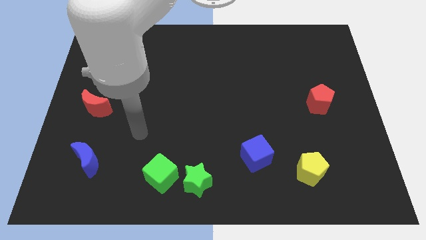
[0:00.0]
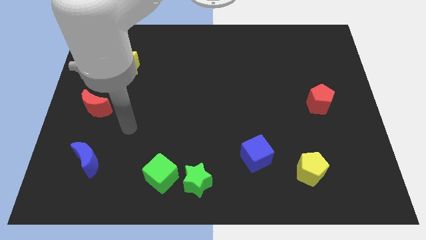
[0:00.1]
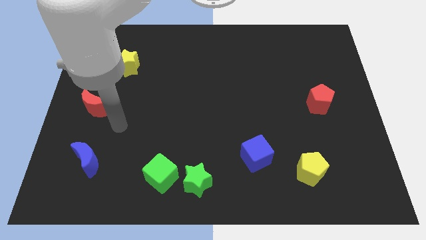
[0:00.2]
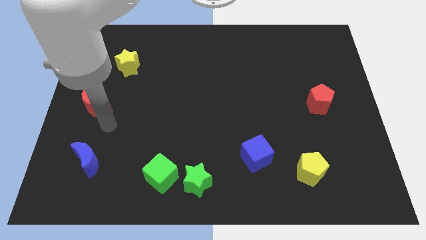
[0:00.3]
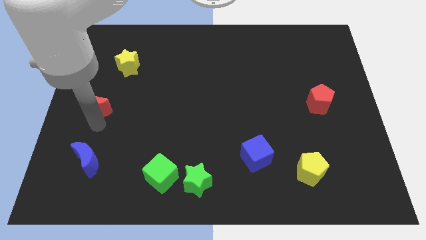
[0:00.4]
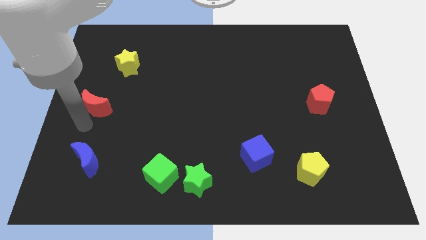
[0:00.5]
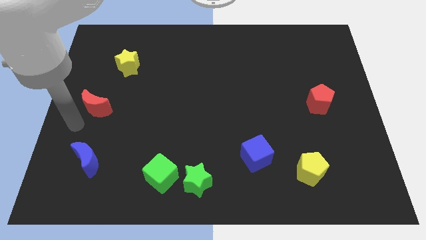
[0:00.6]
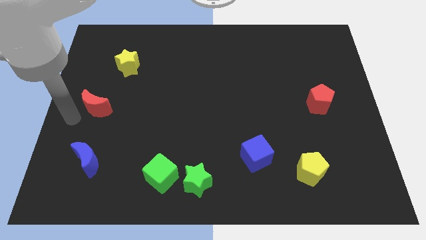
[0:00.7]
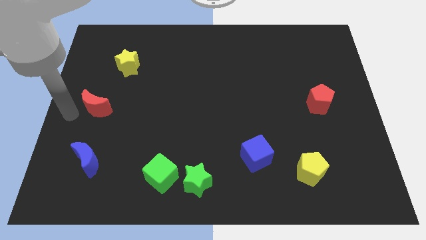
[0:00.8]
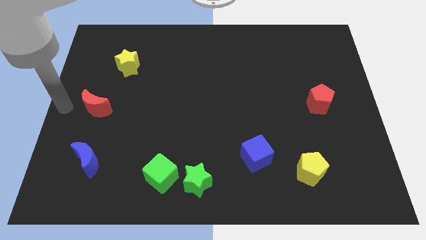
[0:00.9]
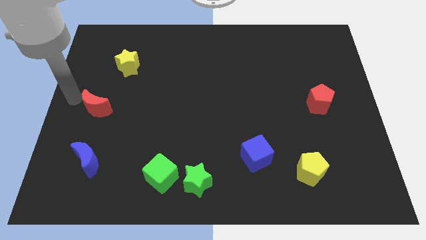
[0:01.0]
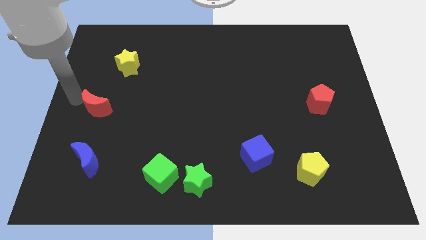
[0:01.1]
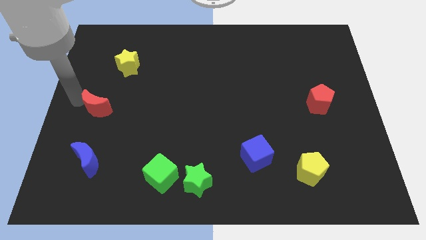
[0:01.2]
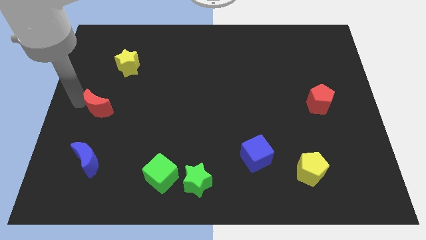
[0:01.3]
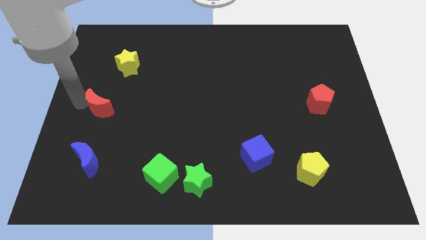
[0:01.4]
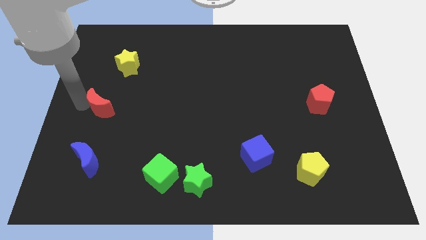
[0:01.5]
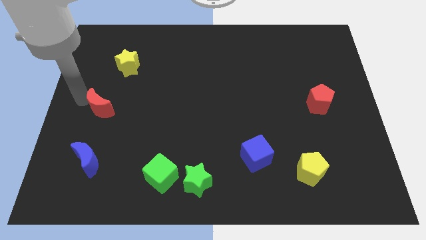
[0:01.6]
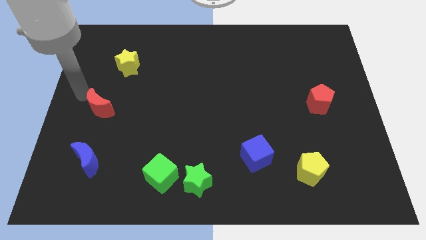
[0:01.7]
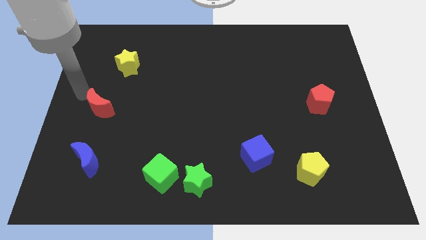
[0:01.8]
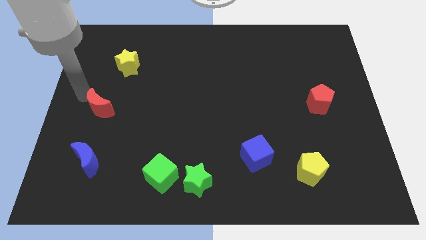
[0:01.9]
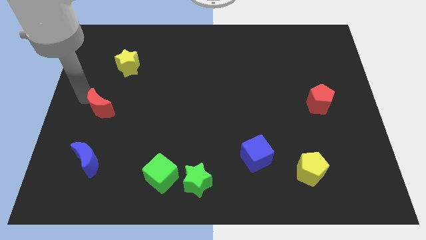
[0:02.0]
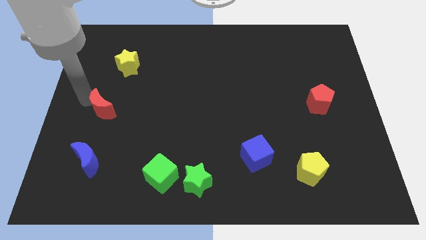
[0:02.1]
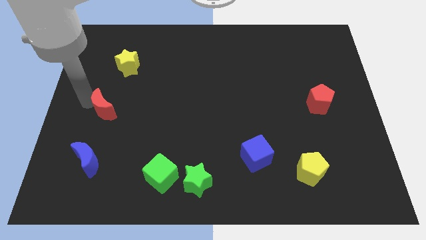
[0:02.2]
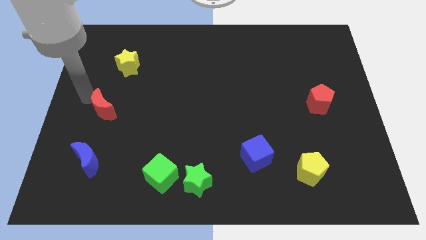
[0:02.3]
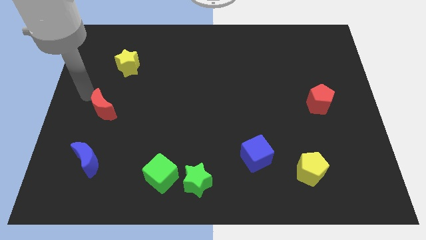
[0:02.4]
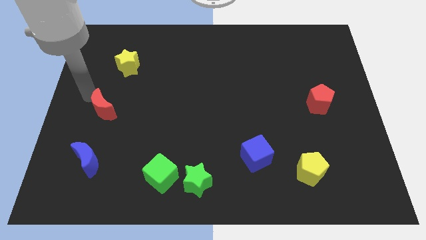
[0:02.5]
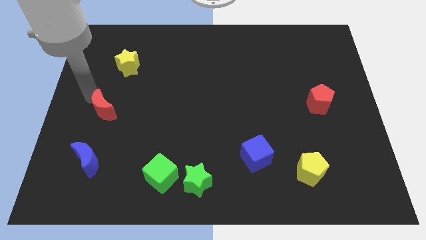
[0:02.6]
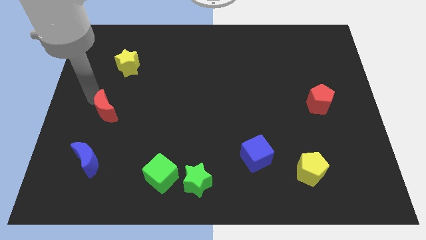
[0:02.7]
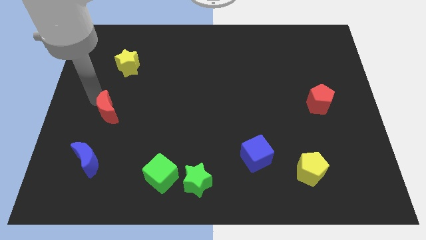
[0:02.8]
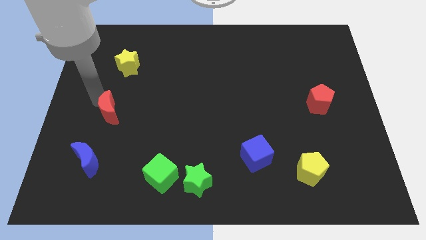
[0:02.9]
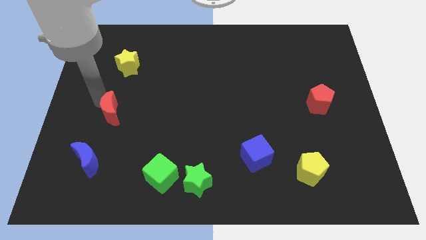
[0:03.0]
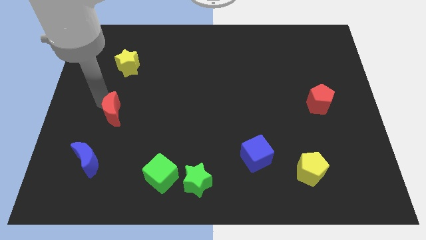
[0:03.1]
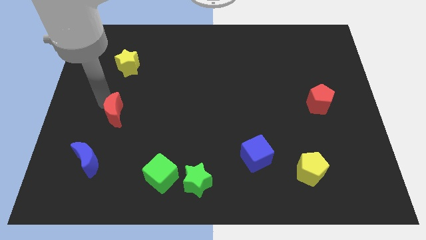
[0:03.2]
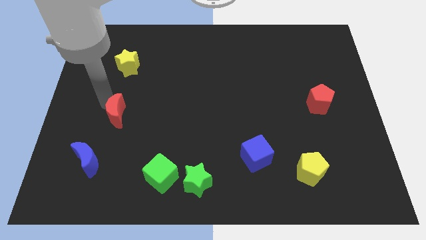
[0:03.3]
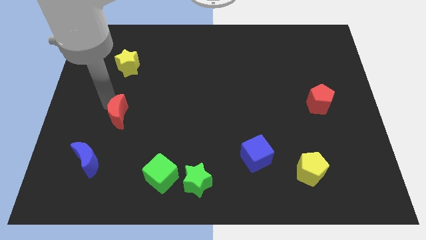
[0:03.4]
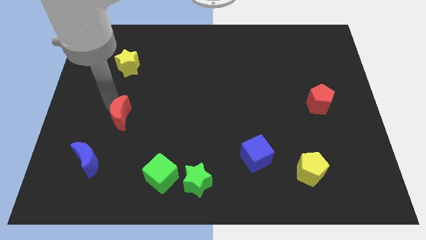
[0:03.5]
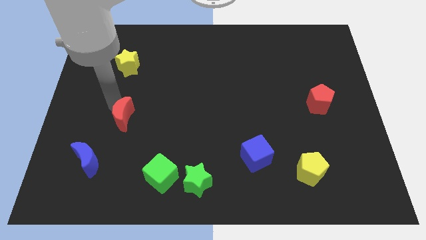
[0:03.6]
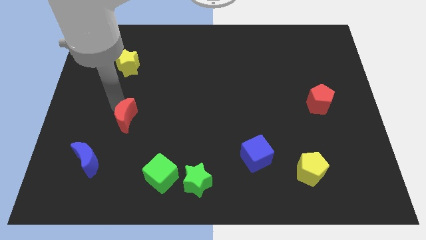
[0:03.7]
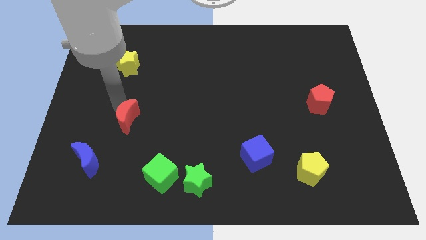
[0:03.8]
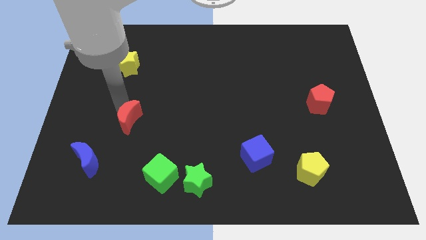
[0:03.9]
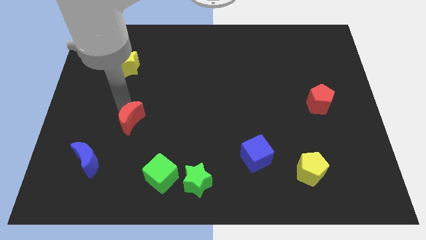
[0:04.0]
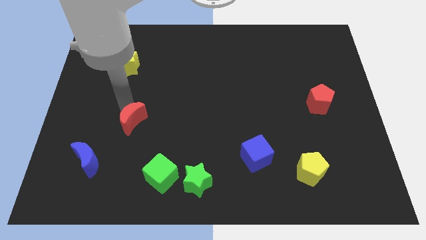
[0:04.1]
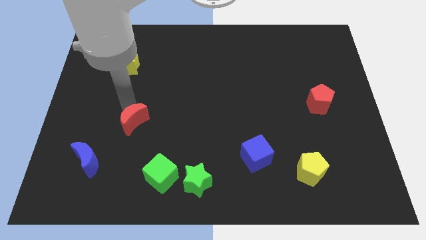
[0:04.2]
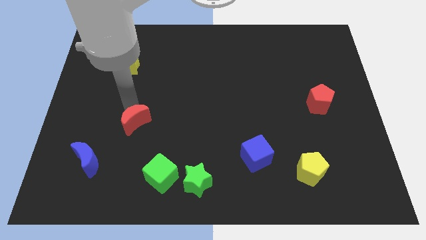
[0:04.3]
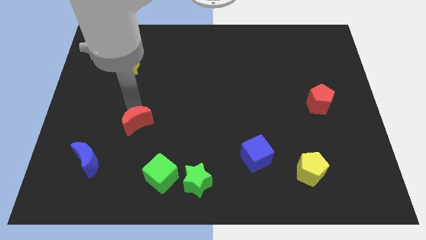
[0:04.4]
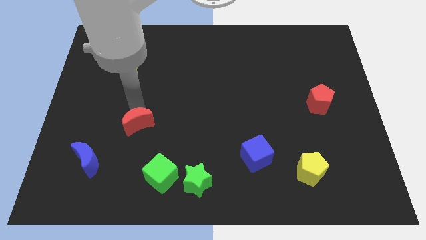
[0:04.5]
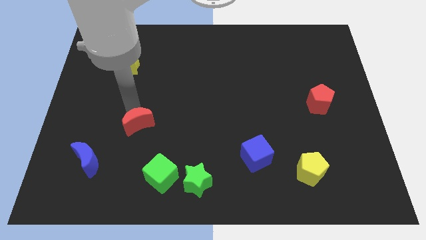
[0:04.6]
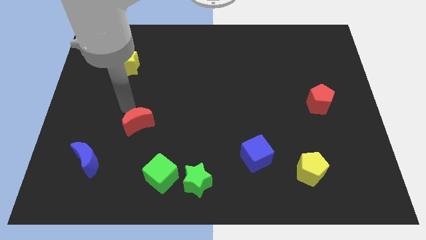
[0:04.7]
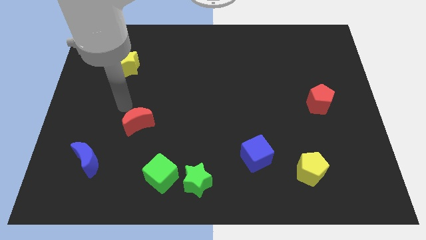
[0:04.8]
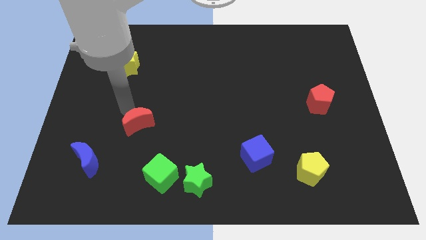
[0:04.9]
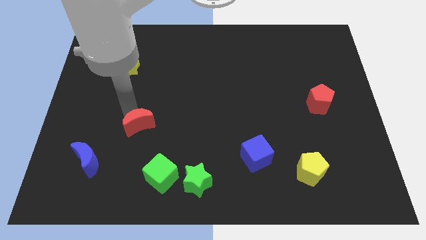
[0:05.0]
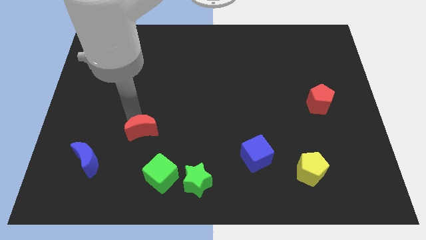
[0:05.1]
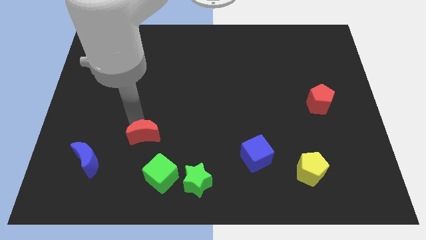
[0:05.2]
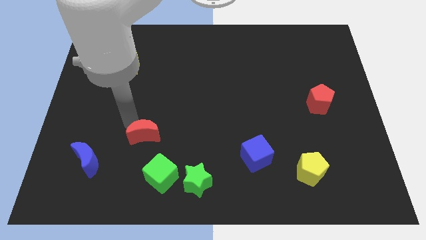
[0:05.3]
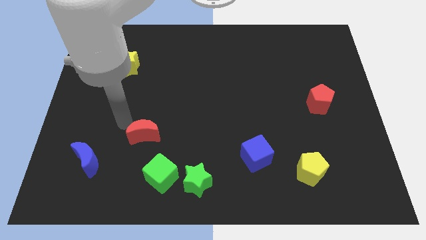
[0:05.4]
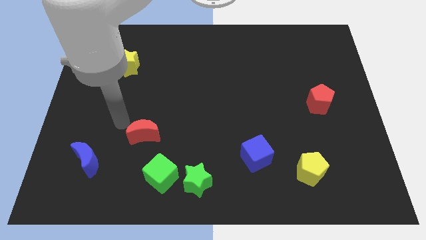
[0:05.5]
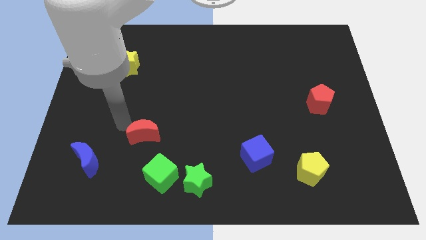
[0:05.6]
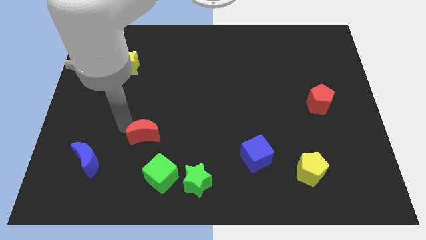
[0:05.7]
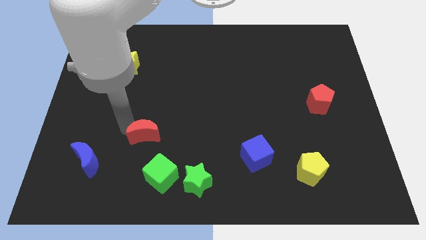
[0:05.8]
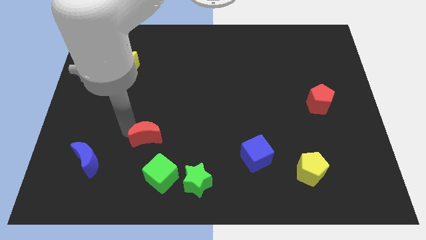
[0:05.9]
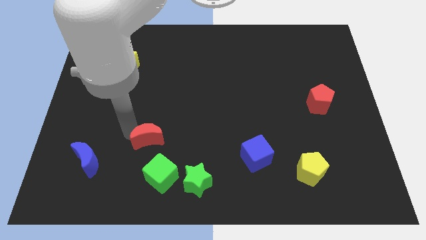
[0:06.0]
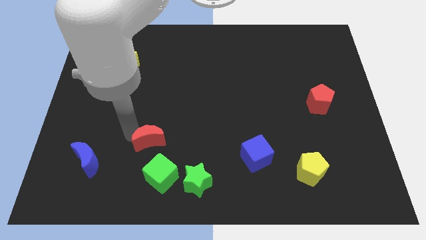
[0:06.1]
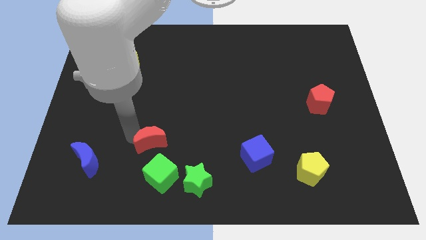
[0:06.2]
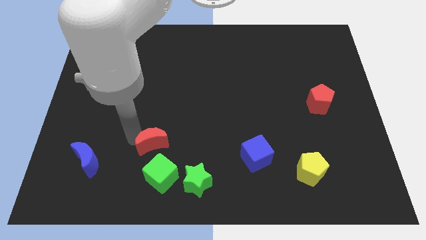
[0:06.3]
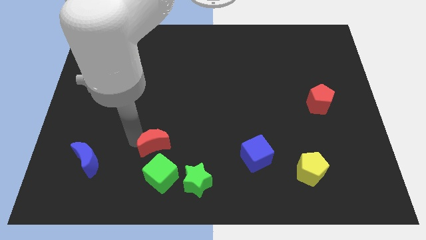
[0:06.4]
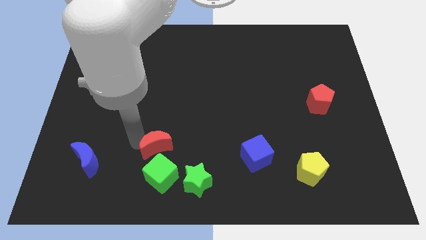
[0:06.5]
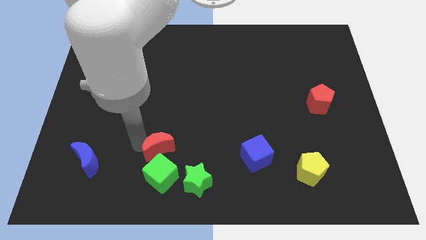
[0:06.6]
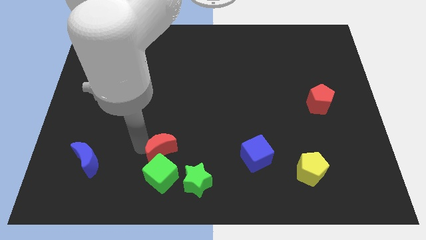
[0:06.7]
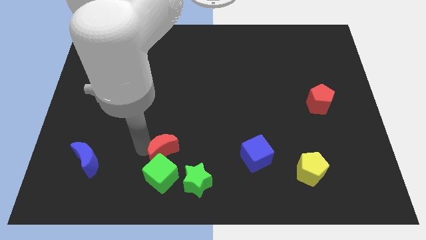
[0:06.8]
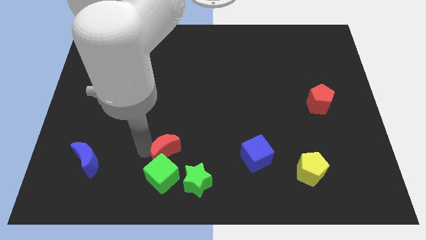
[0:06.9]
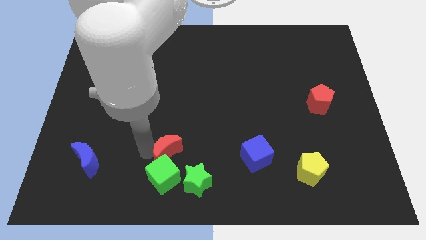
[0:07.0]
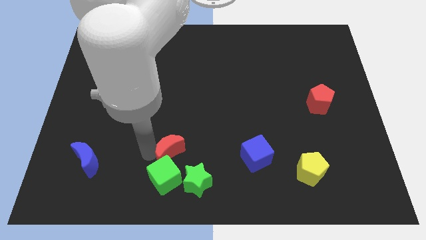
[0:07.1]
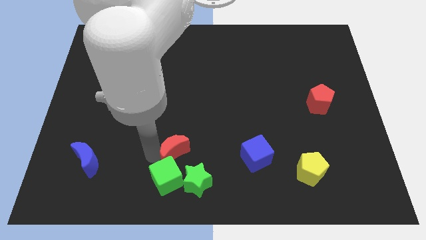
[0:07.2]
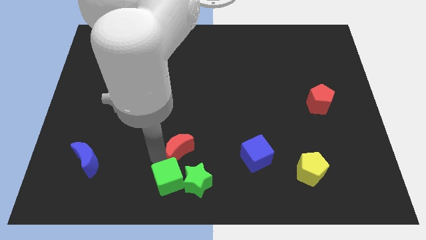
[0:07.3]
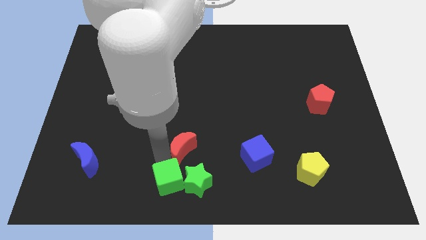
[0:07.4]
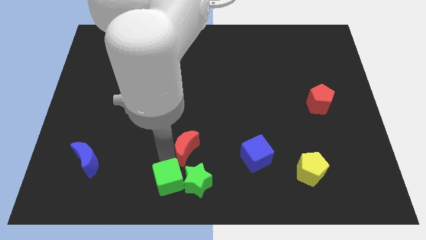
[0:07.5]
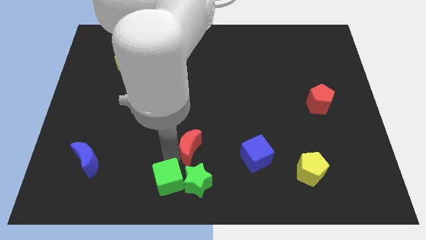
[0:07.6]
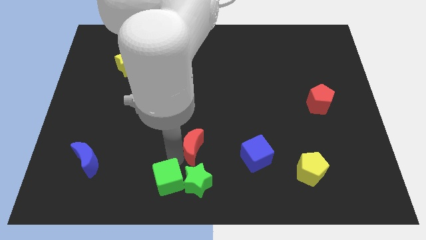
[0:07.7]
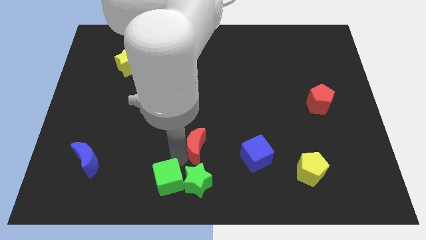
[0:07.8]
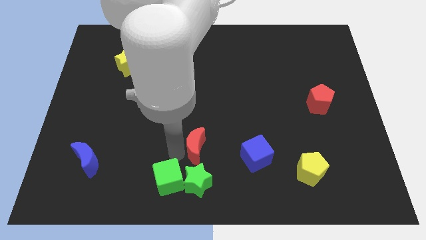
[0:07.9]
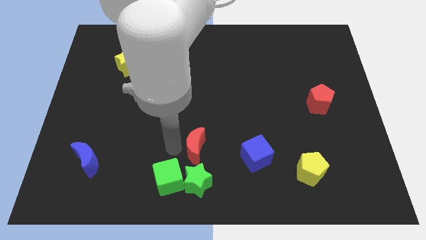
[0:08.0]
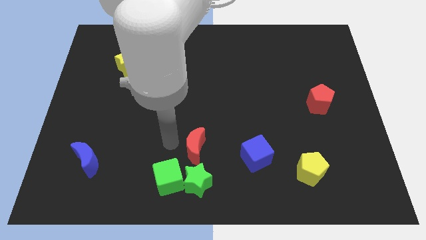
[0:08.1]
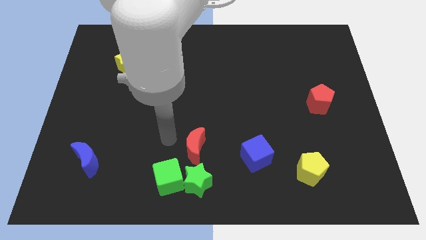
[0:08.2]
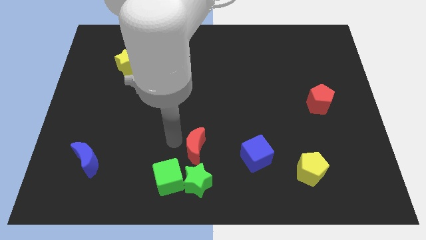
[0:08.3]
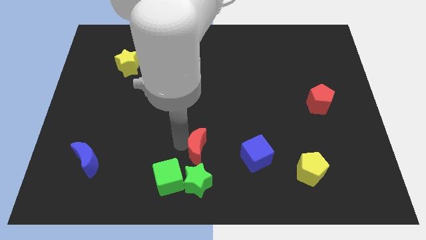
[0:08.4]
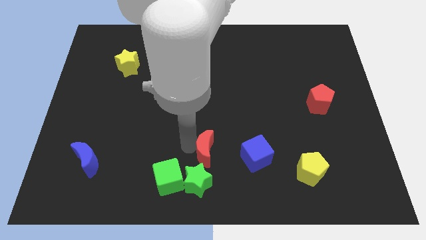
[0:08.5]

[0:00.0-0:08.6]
move the red moon to the top right of the green star

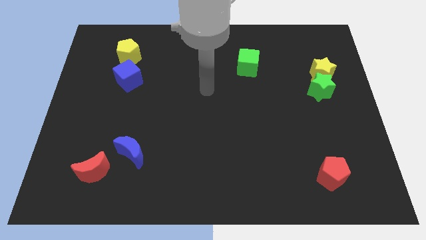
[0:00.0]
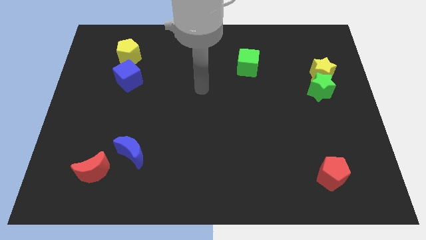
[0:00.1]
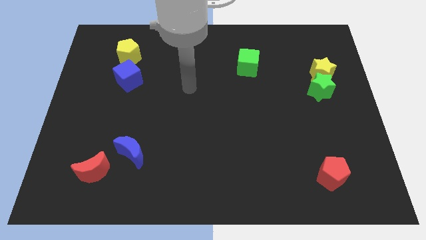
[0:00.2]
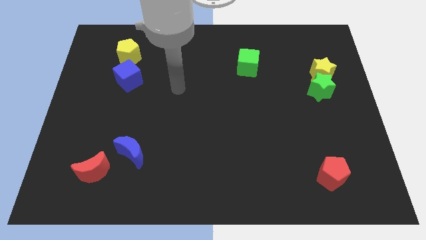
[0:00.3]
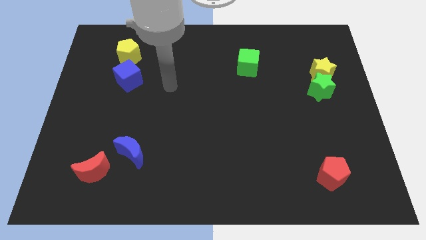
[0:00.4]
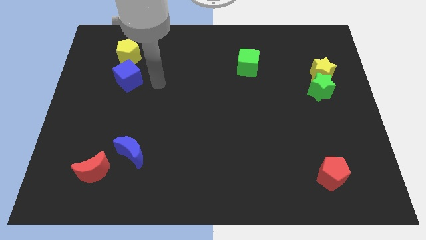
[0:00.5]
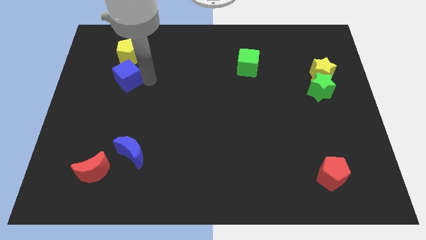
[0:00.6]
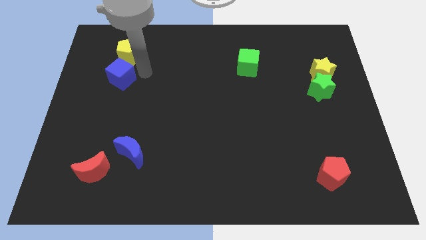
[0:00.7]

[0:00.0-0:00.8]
put the yellow pentagon to the top right side of the blue cube
